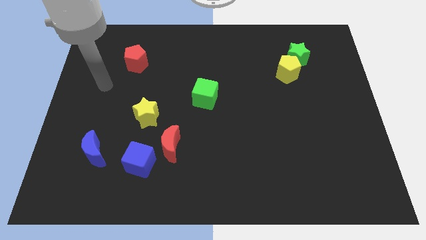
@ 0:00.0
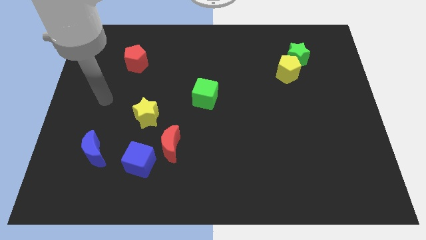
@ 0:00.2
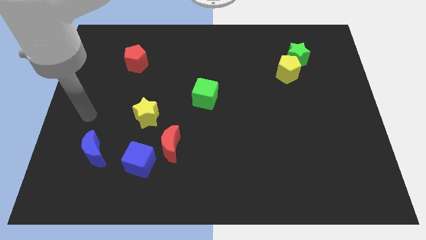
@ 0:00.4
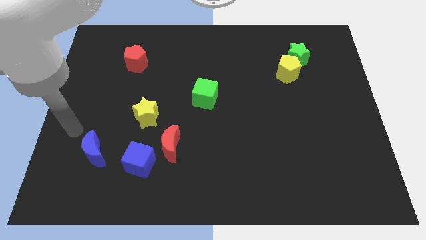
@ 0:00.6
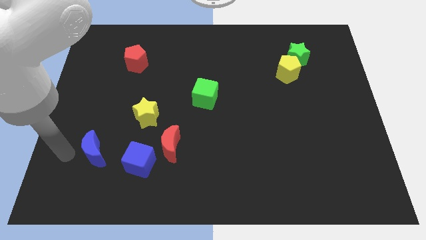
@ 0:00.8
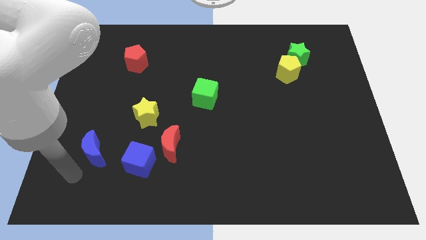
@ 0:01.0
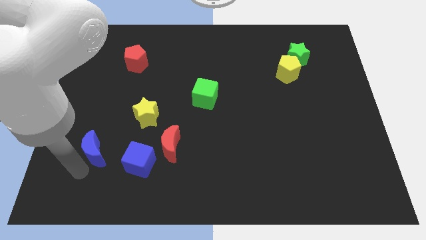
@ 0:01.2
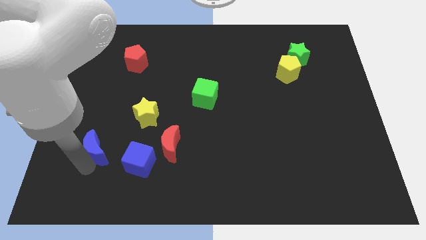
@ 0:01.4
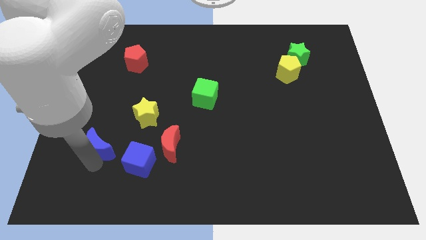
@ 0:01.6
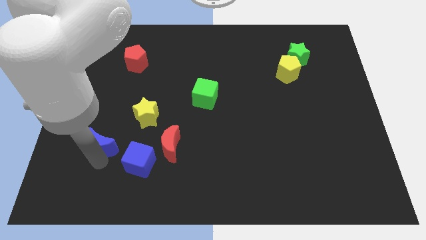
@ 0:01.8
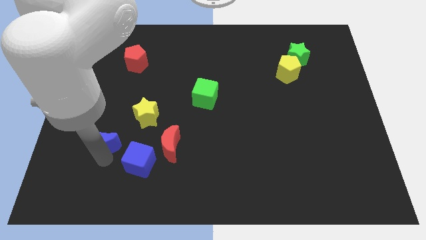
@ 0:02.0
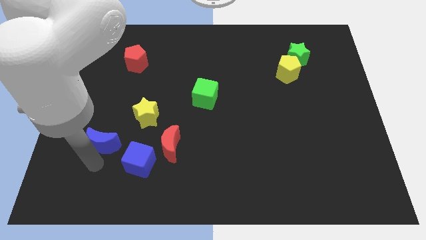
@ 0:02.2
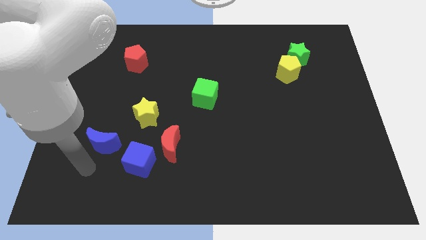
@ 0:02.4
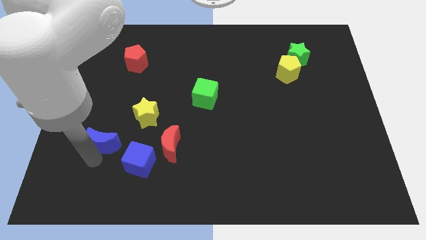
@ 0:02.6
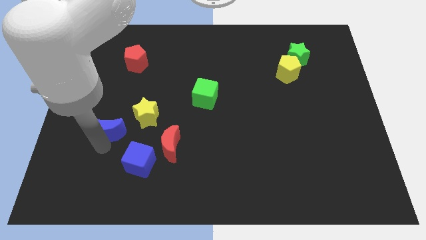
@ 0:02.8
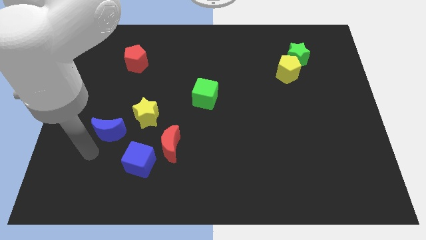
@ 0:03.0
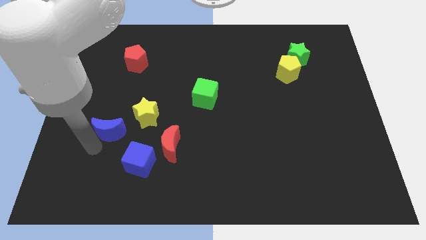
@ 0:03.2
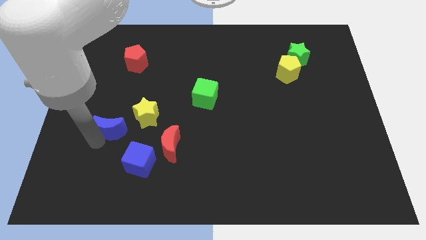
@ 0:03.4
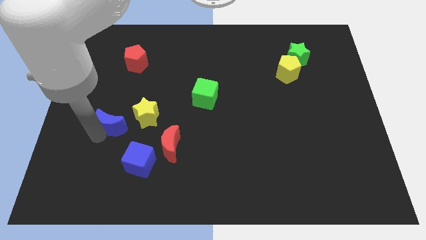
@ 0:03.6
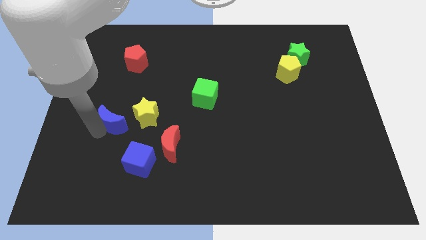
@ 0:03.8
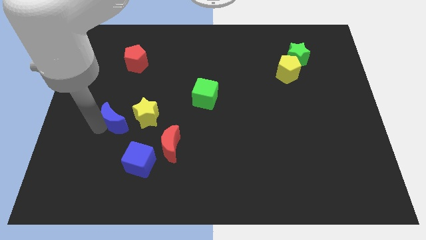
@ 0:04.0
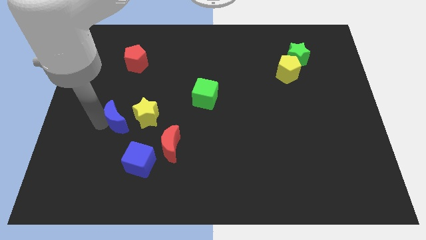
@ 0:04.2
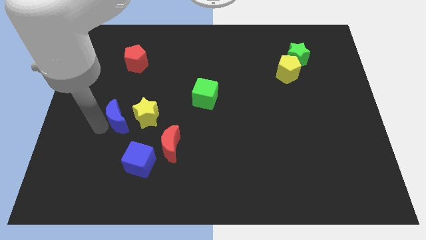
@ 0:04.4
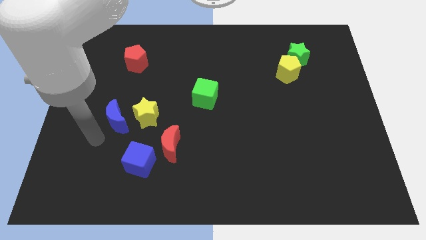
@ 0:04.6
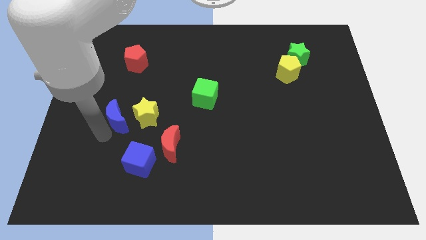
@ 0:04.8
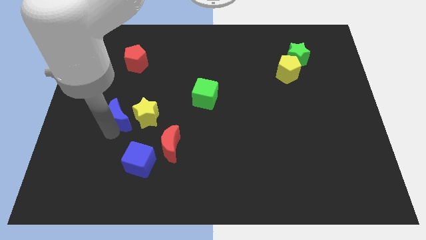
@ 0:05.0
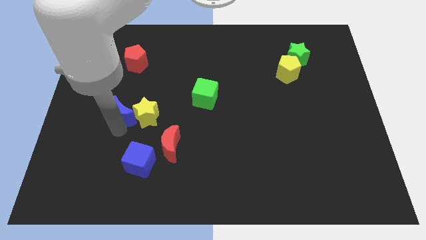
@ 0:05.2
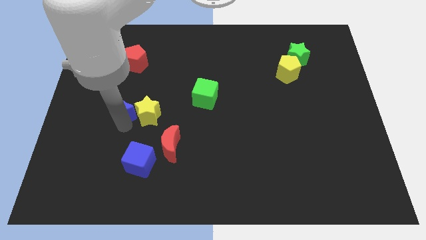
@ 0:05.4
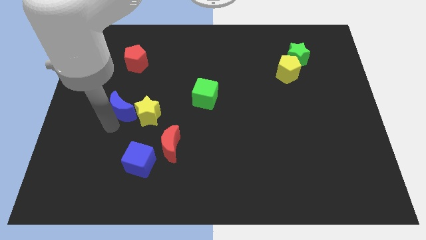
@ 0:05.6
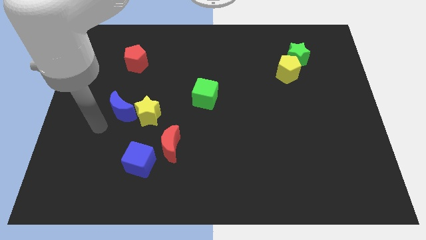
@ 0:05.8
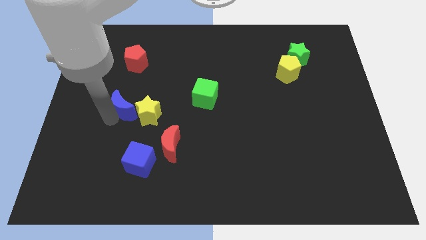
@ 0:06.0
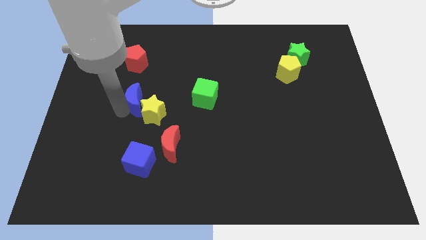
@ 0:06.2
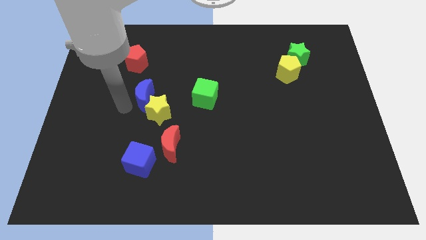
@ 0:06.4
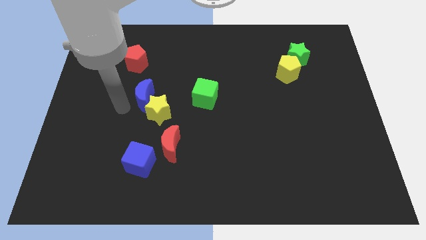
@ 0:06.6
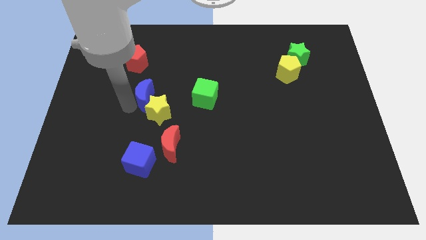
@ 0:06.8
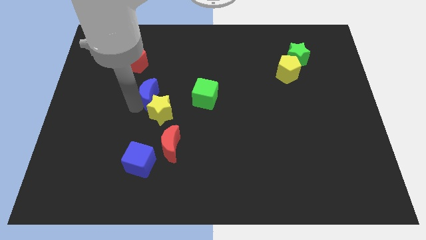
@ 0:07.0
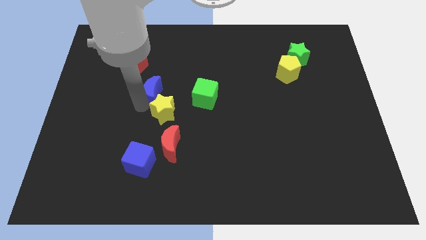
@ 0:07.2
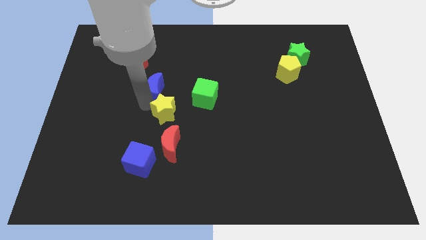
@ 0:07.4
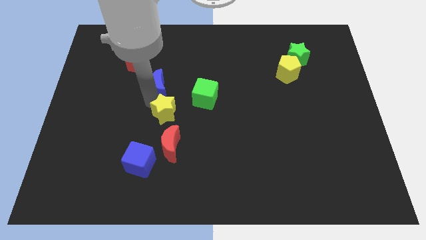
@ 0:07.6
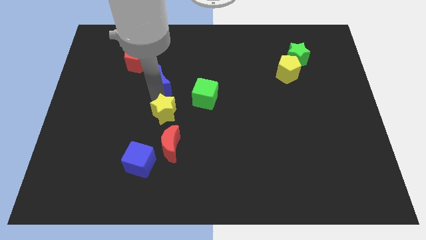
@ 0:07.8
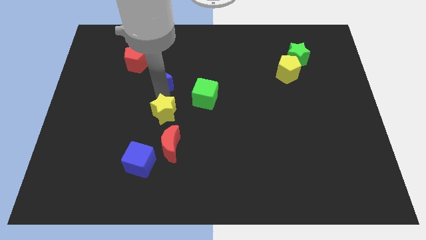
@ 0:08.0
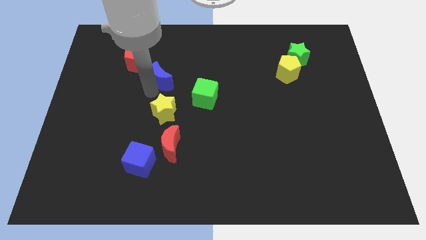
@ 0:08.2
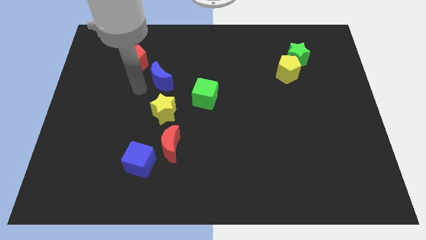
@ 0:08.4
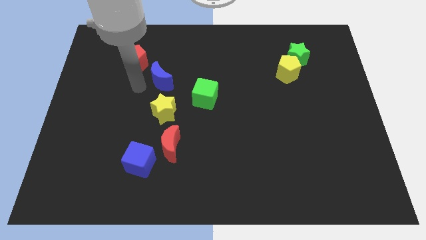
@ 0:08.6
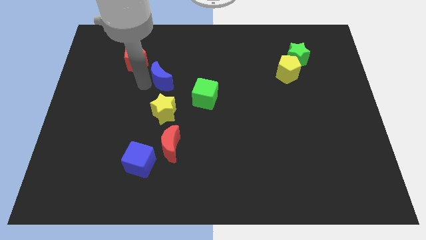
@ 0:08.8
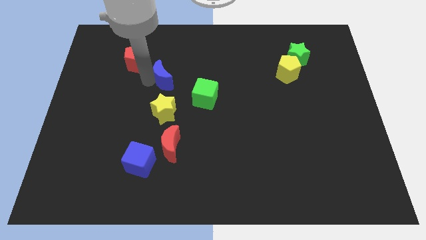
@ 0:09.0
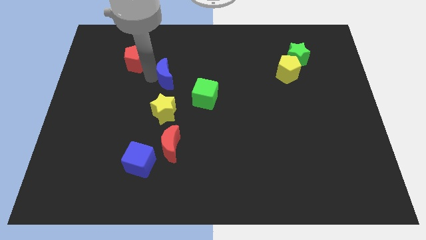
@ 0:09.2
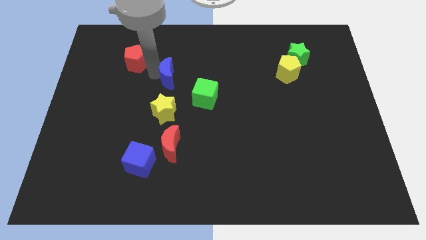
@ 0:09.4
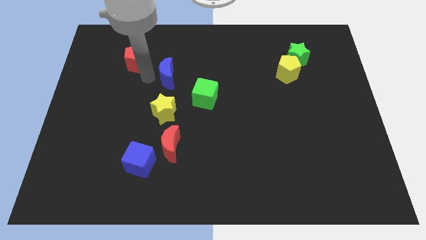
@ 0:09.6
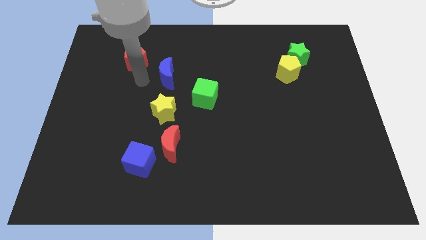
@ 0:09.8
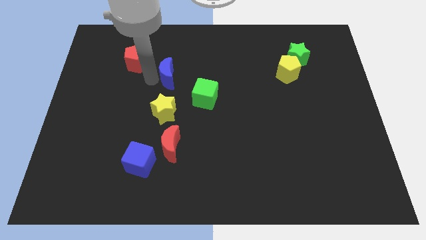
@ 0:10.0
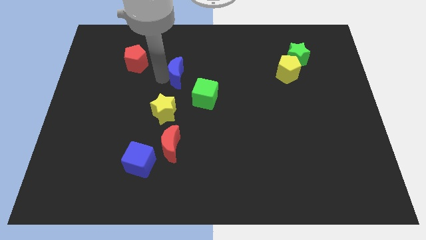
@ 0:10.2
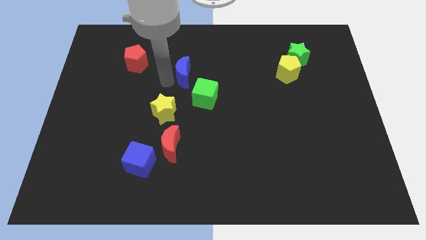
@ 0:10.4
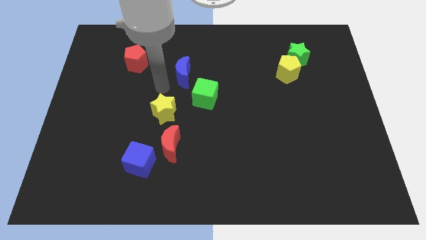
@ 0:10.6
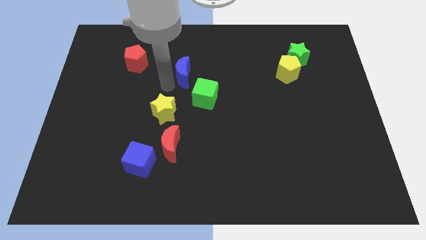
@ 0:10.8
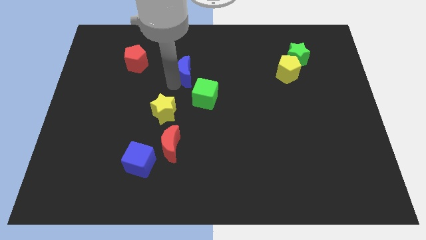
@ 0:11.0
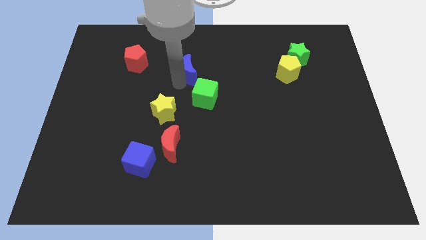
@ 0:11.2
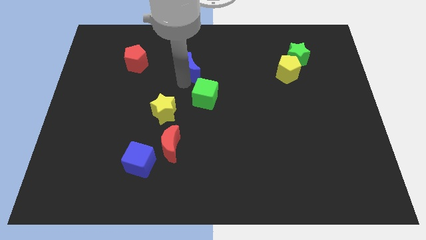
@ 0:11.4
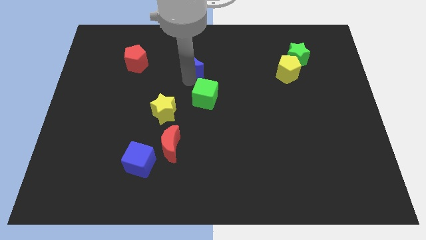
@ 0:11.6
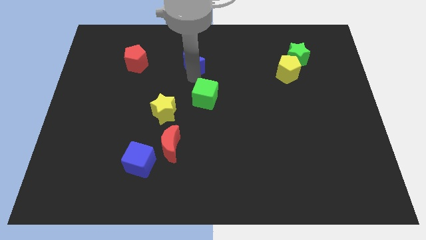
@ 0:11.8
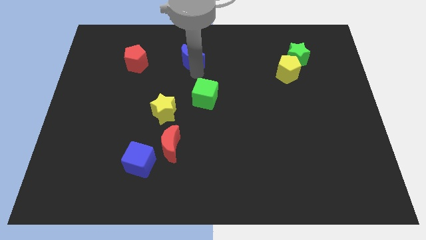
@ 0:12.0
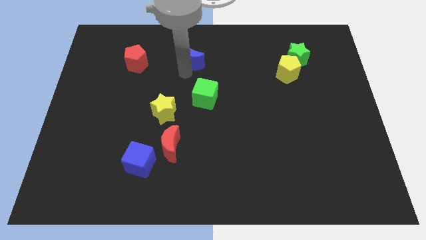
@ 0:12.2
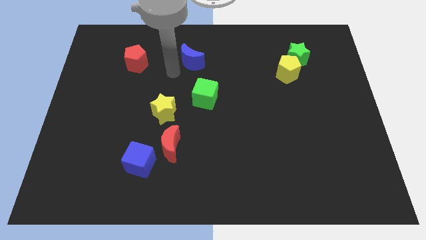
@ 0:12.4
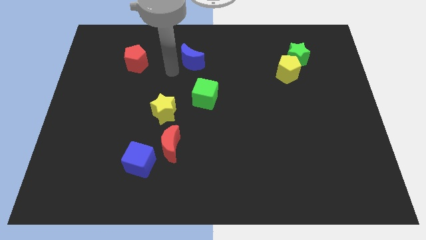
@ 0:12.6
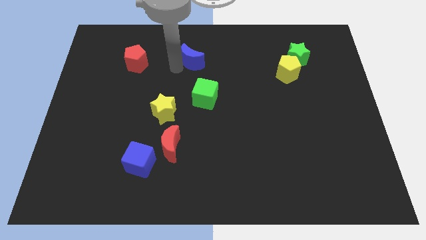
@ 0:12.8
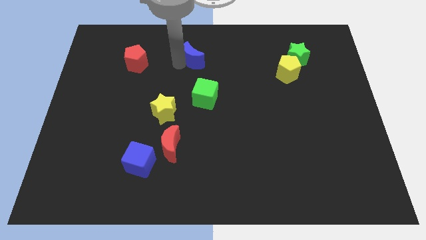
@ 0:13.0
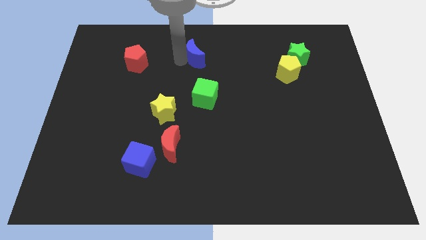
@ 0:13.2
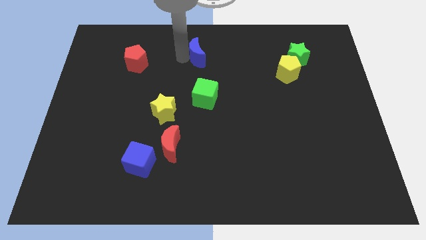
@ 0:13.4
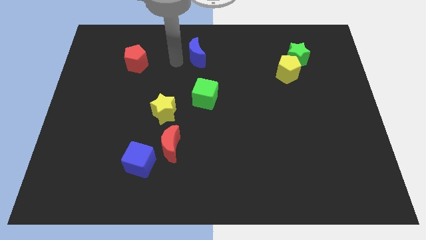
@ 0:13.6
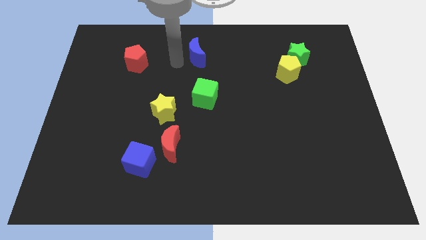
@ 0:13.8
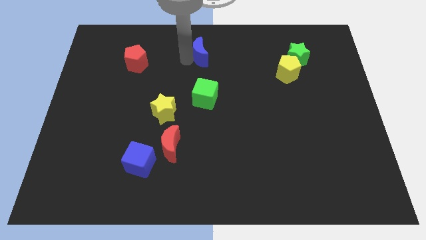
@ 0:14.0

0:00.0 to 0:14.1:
push the blue moon to the top side
